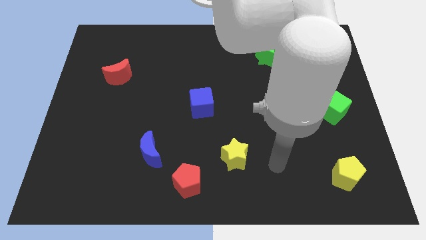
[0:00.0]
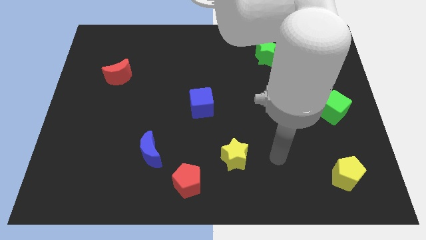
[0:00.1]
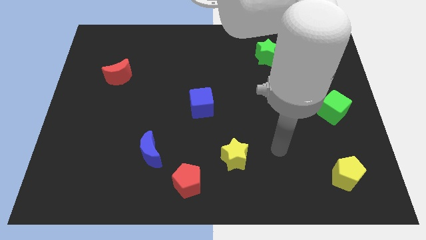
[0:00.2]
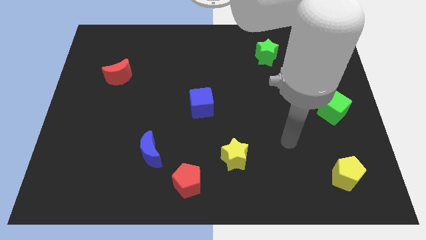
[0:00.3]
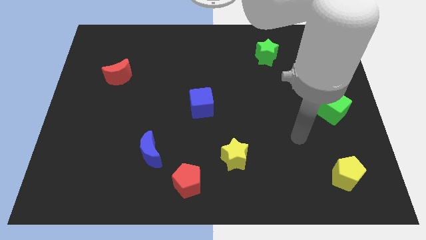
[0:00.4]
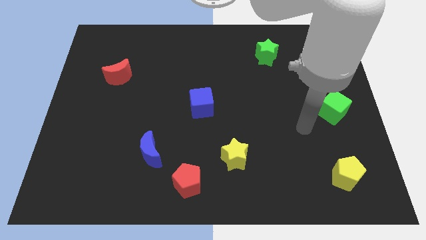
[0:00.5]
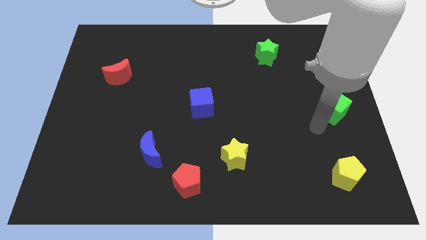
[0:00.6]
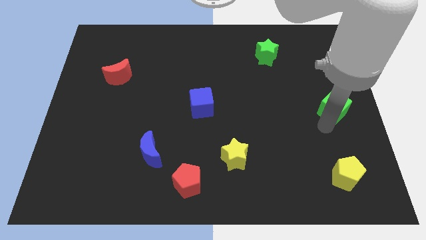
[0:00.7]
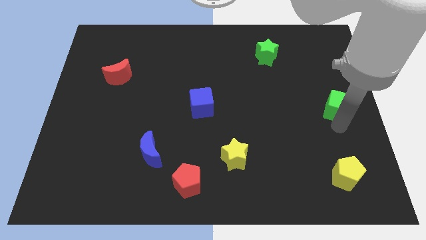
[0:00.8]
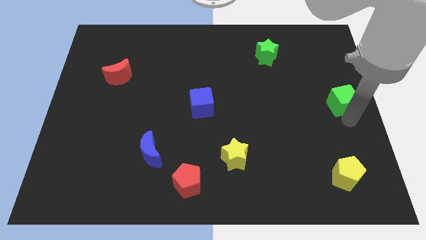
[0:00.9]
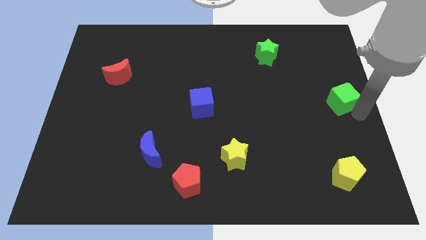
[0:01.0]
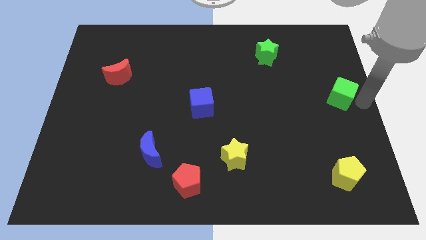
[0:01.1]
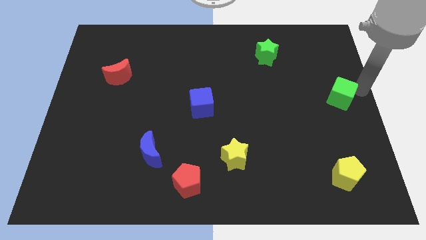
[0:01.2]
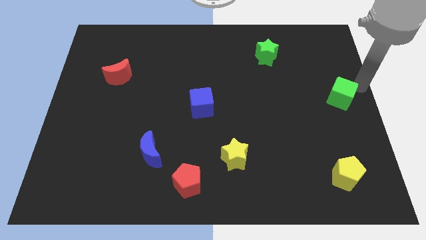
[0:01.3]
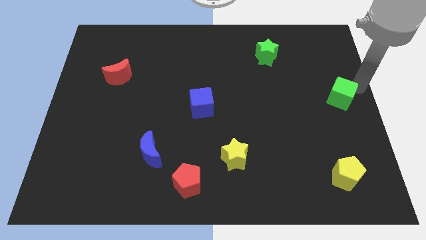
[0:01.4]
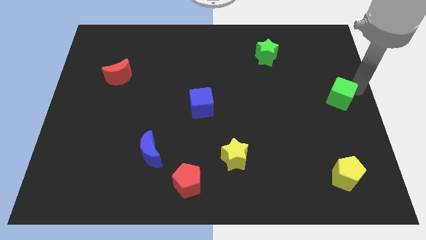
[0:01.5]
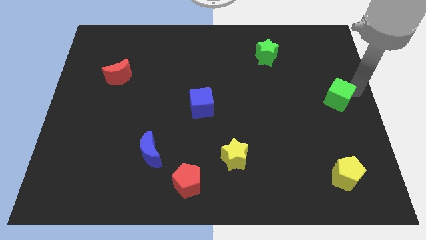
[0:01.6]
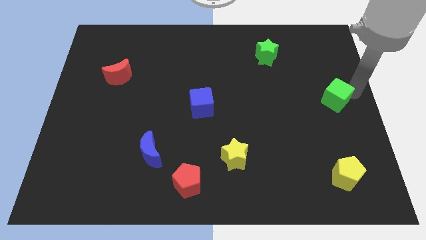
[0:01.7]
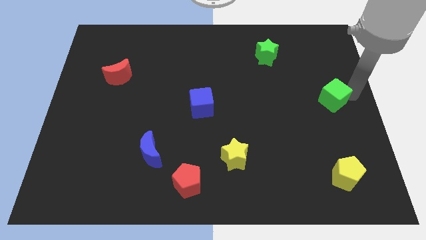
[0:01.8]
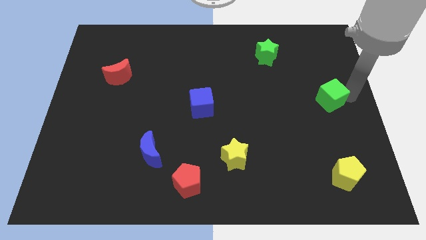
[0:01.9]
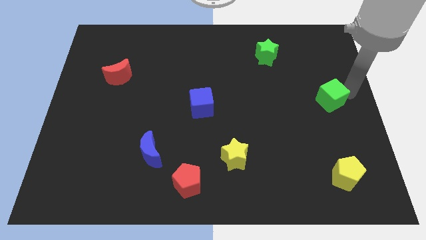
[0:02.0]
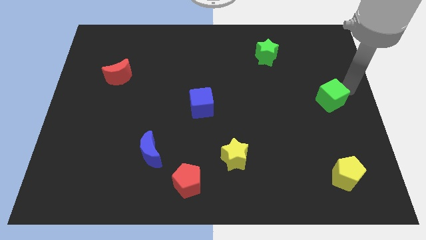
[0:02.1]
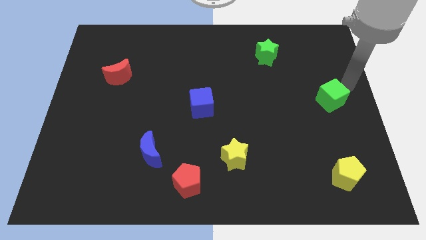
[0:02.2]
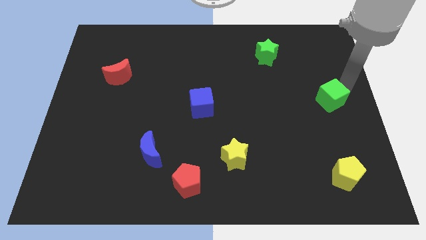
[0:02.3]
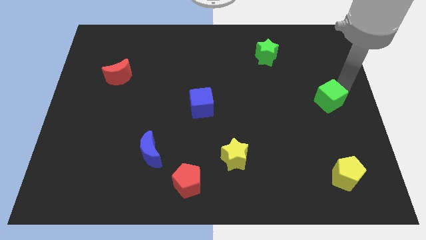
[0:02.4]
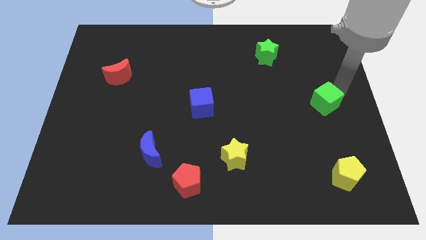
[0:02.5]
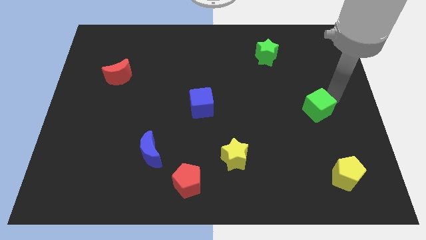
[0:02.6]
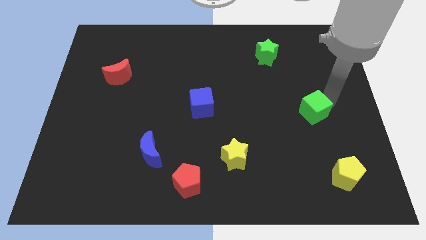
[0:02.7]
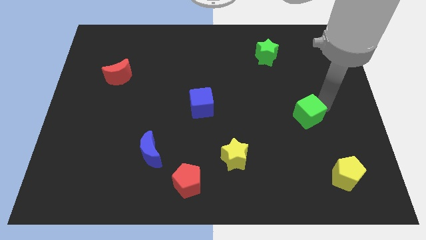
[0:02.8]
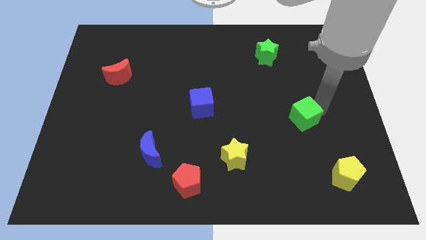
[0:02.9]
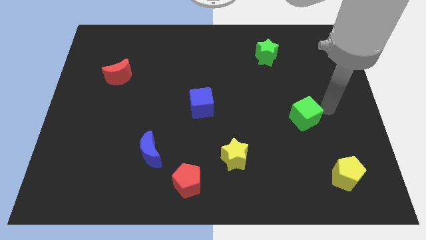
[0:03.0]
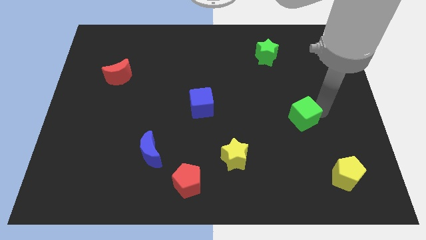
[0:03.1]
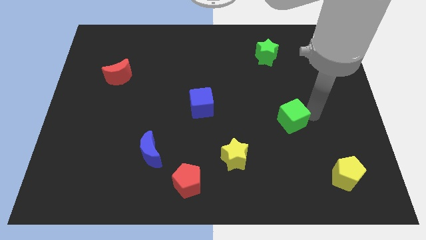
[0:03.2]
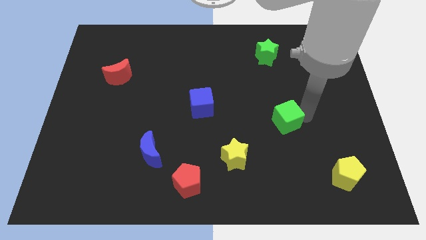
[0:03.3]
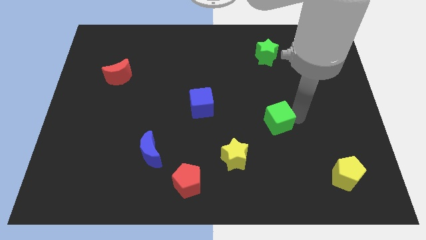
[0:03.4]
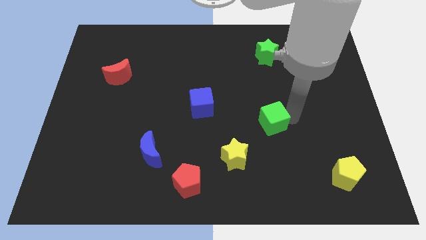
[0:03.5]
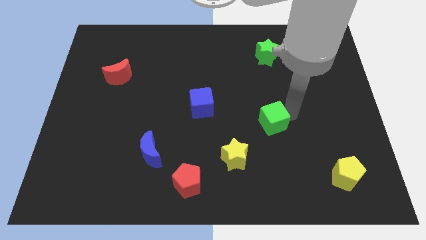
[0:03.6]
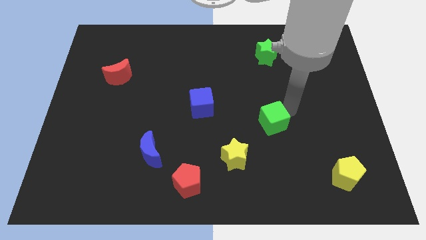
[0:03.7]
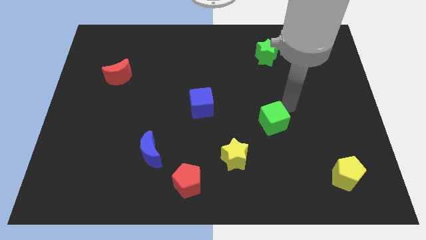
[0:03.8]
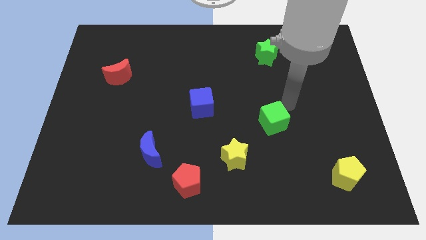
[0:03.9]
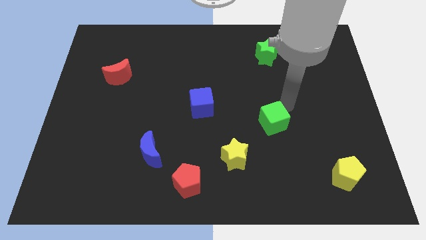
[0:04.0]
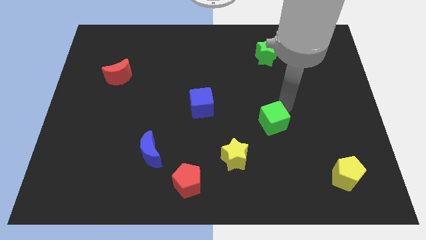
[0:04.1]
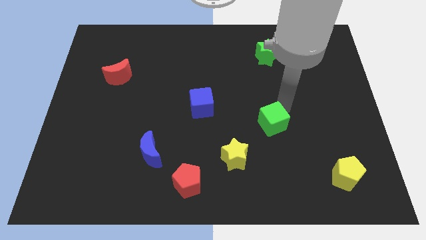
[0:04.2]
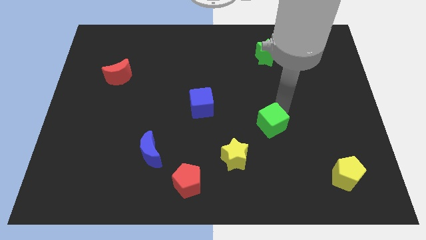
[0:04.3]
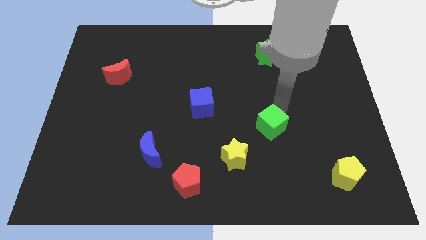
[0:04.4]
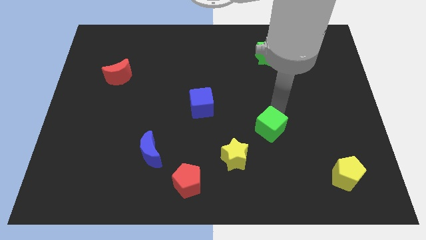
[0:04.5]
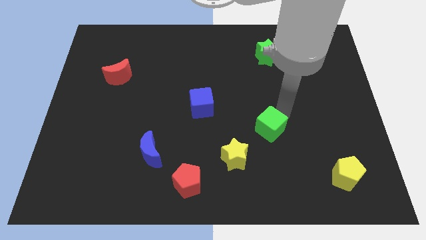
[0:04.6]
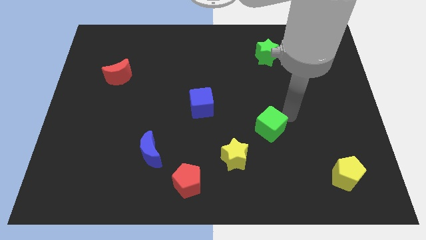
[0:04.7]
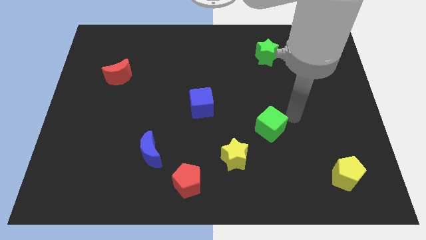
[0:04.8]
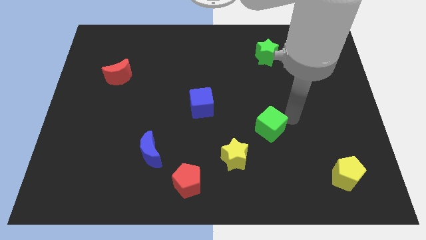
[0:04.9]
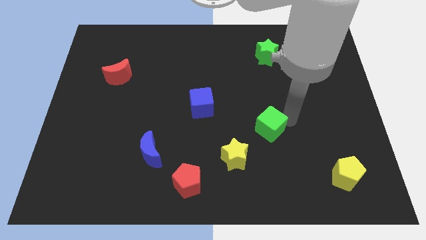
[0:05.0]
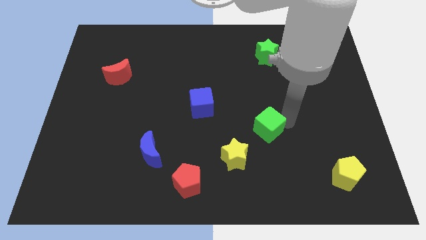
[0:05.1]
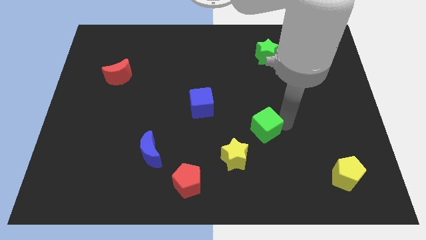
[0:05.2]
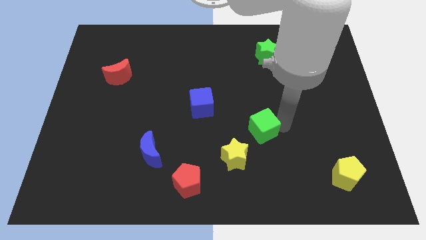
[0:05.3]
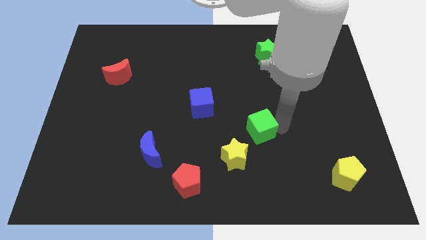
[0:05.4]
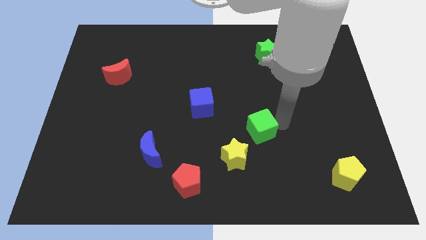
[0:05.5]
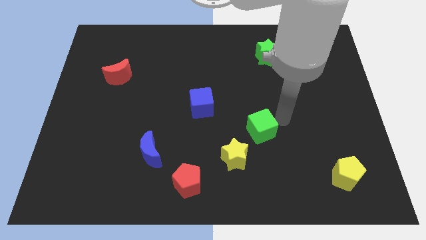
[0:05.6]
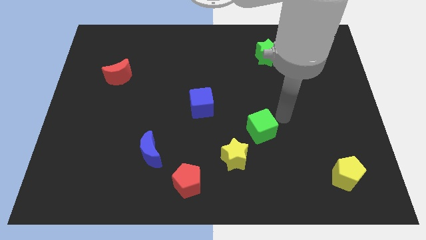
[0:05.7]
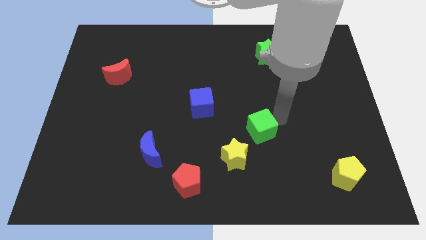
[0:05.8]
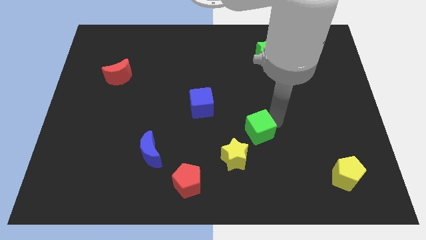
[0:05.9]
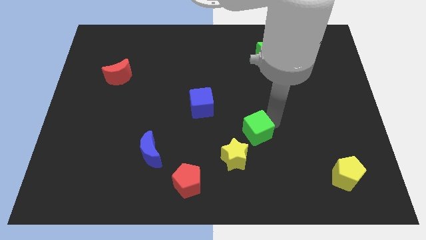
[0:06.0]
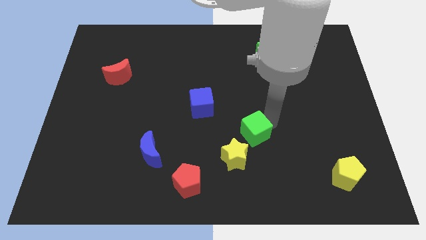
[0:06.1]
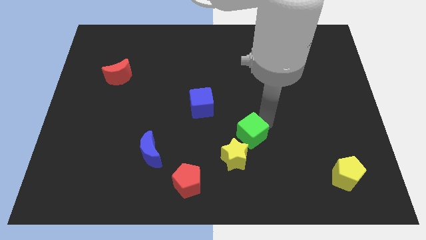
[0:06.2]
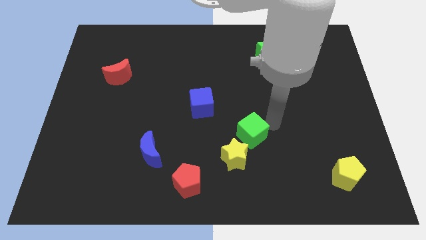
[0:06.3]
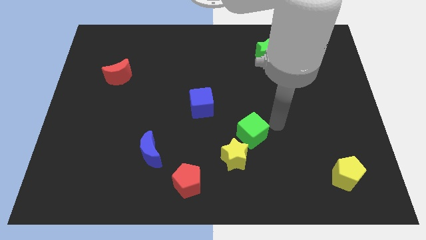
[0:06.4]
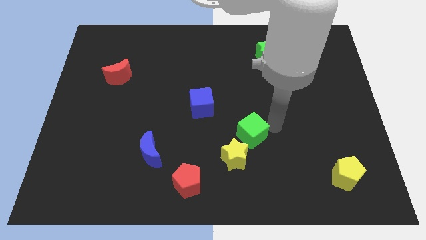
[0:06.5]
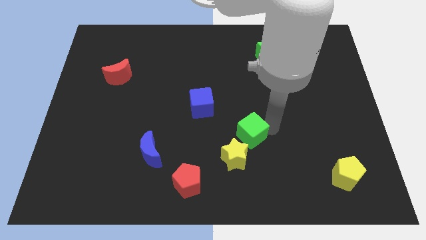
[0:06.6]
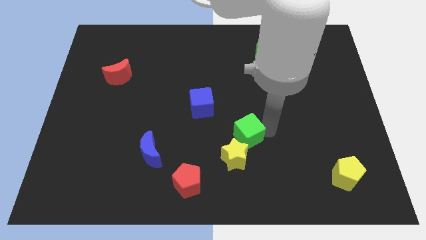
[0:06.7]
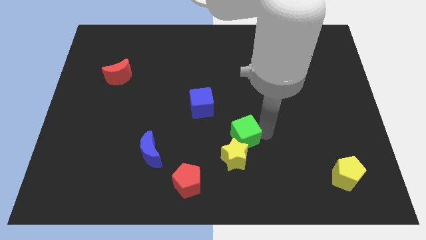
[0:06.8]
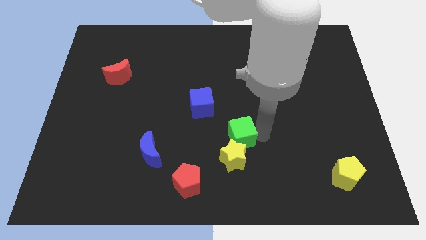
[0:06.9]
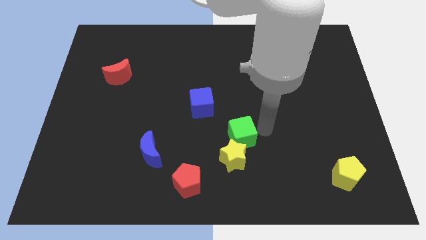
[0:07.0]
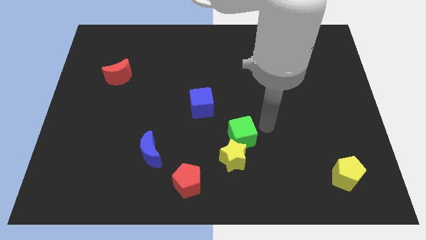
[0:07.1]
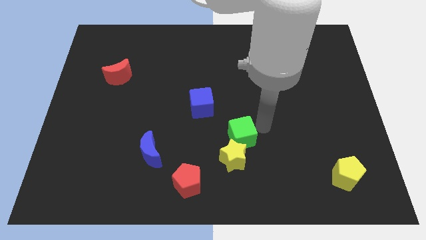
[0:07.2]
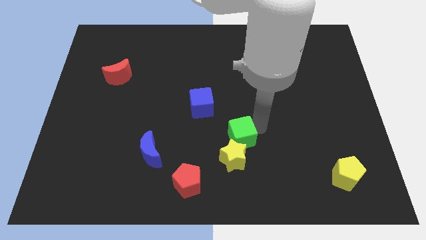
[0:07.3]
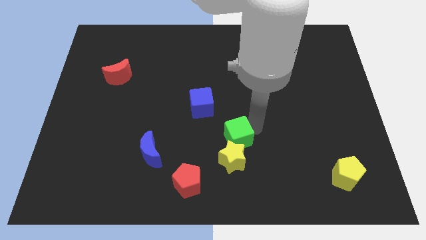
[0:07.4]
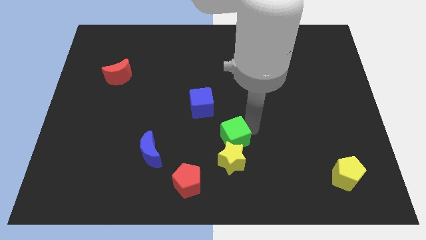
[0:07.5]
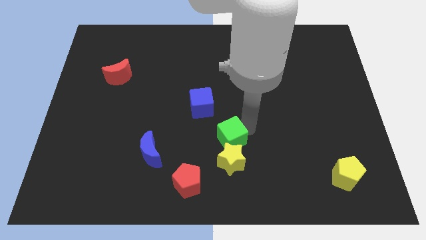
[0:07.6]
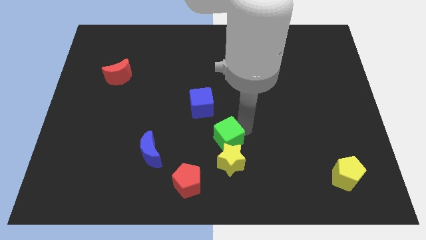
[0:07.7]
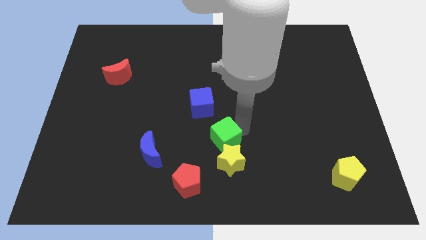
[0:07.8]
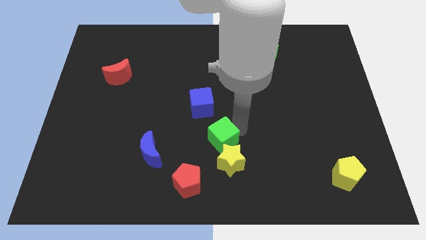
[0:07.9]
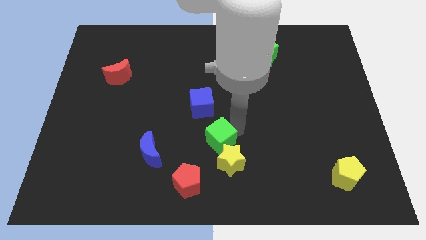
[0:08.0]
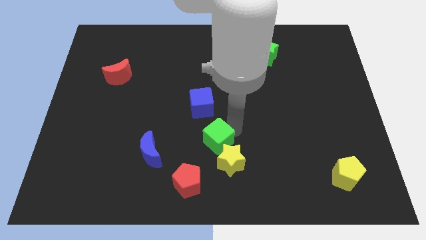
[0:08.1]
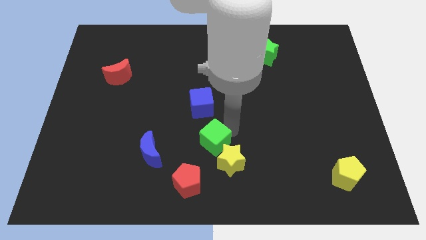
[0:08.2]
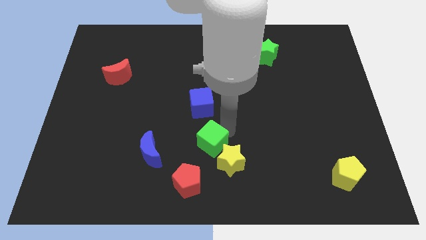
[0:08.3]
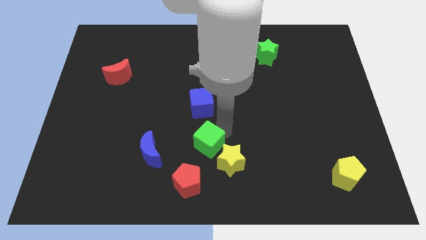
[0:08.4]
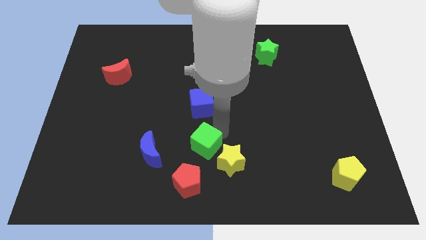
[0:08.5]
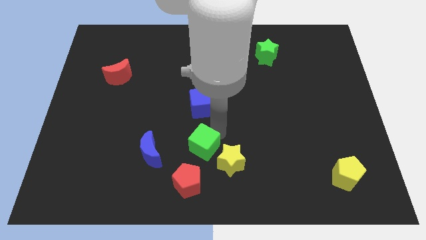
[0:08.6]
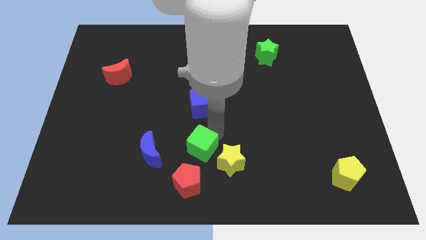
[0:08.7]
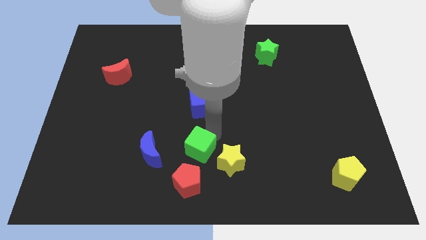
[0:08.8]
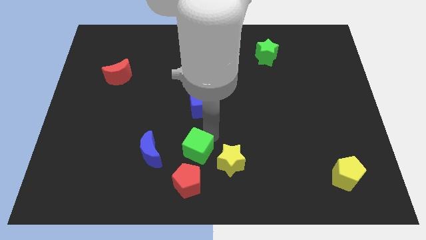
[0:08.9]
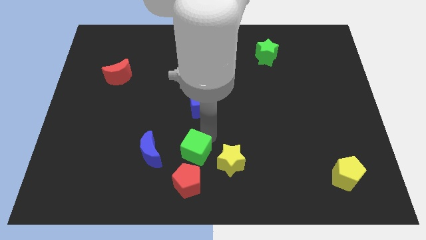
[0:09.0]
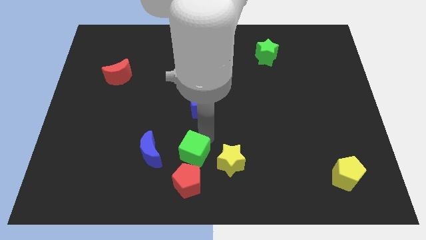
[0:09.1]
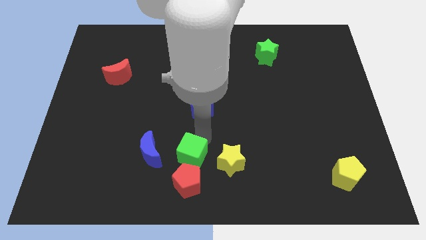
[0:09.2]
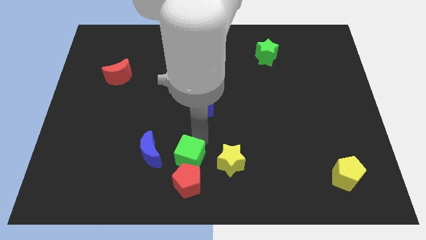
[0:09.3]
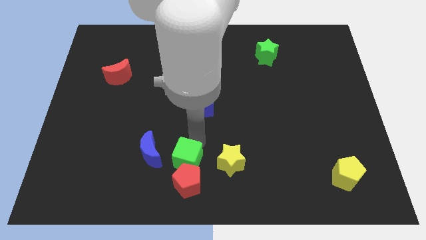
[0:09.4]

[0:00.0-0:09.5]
move the green cube close to the red pentagon
